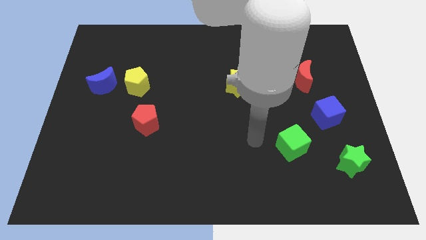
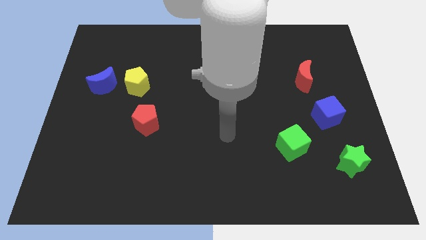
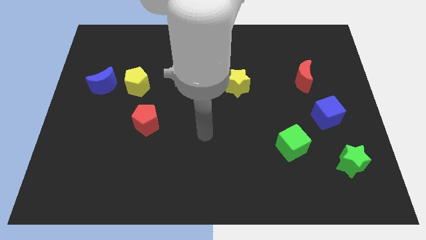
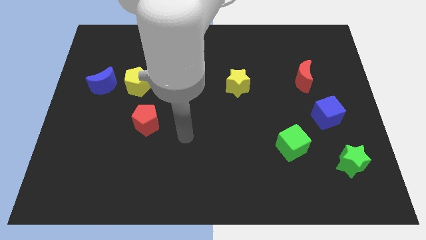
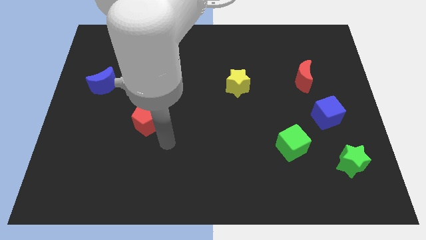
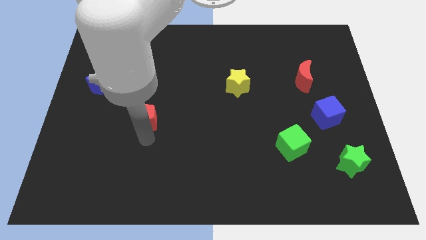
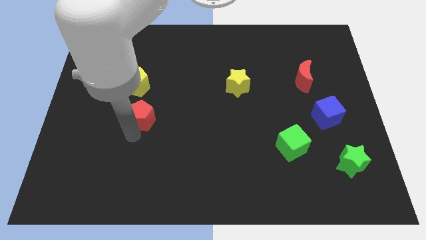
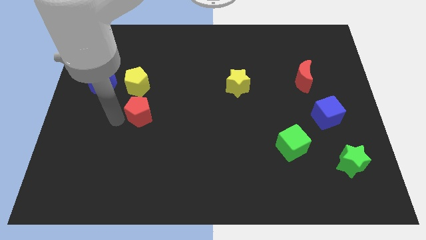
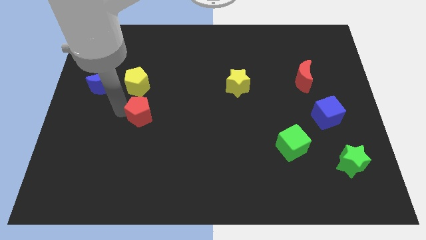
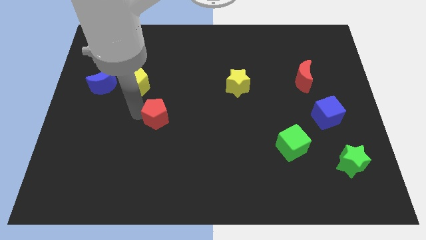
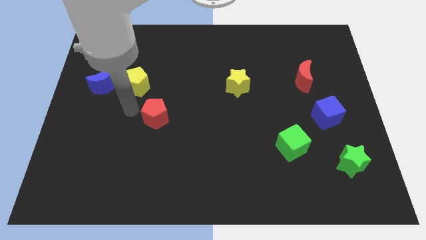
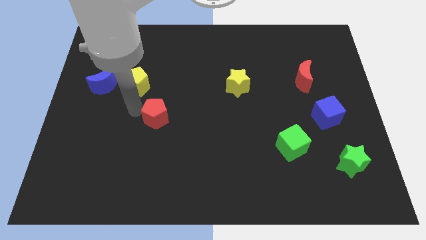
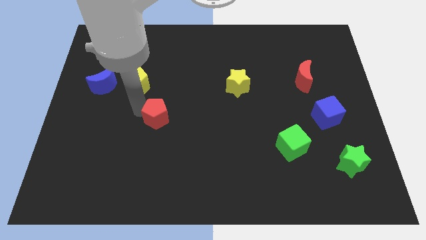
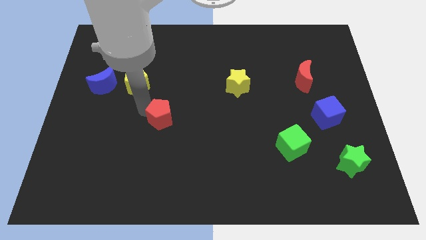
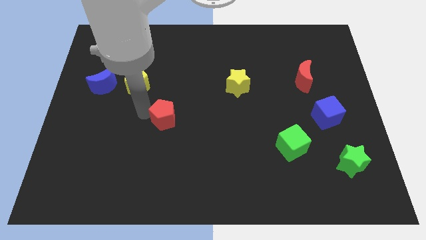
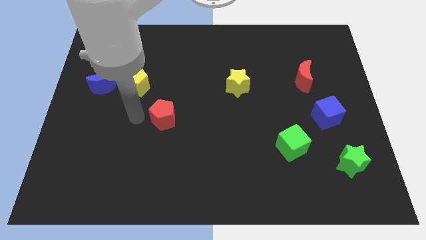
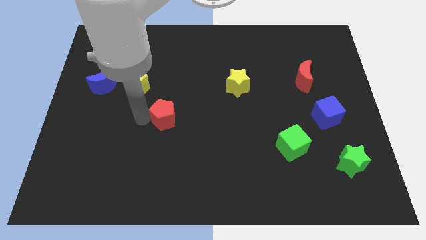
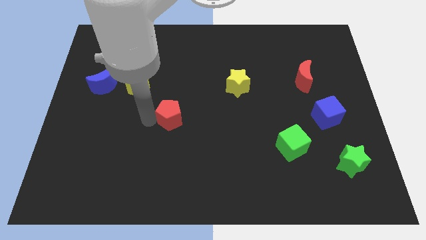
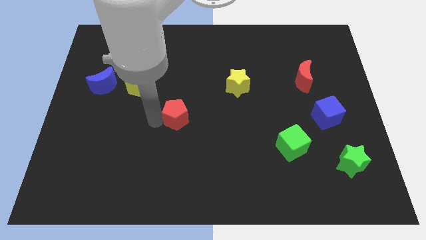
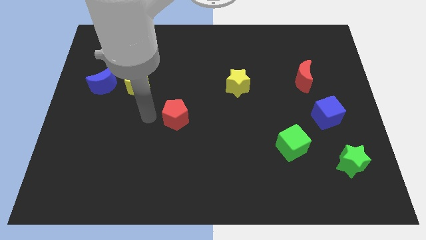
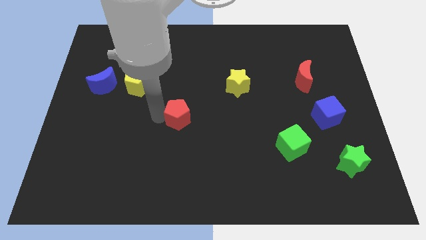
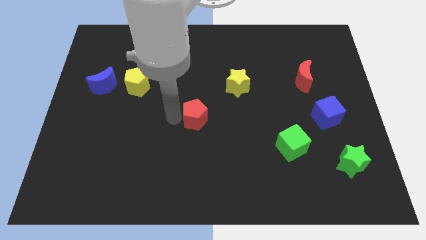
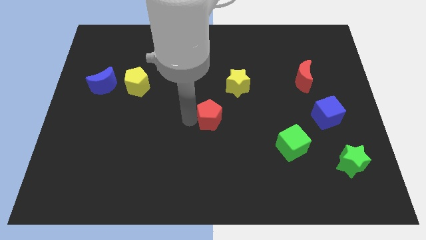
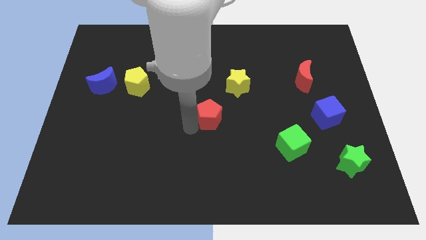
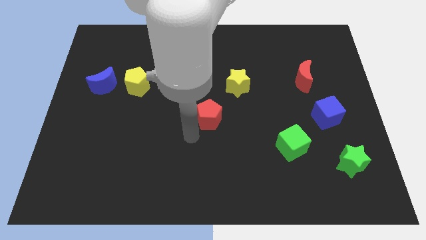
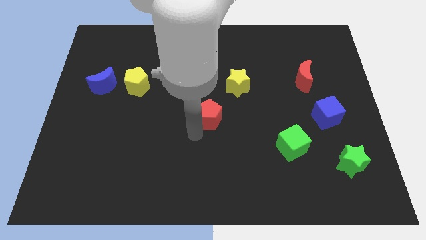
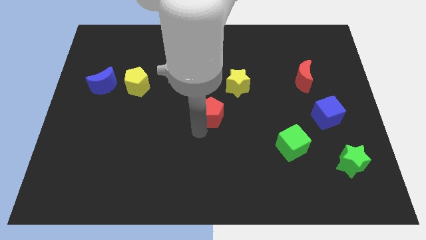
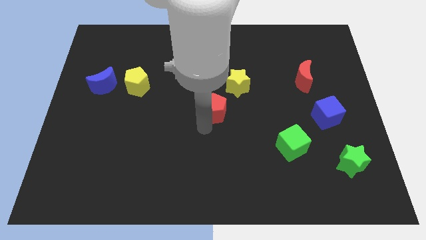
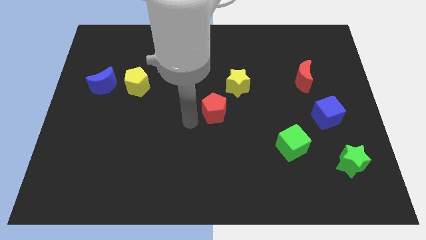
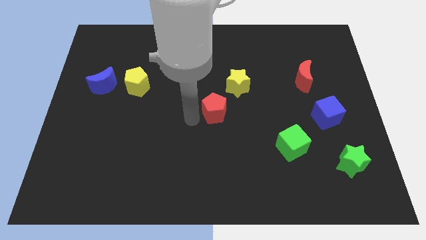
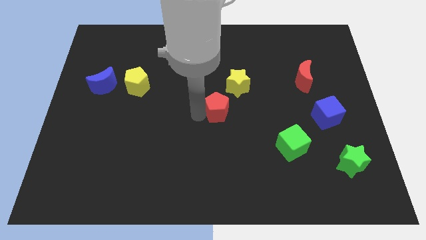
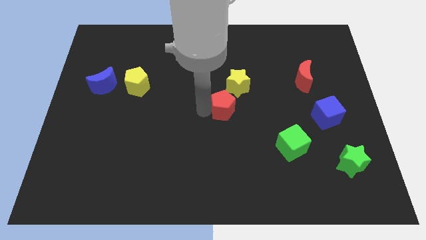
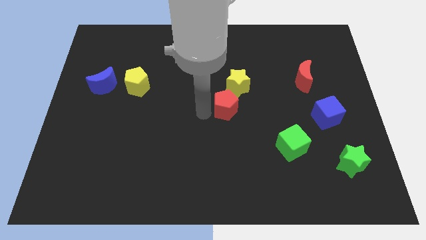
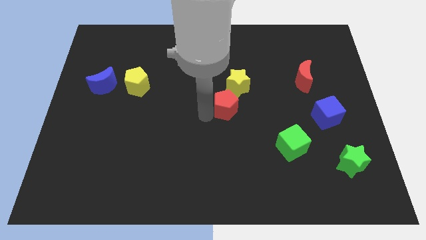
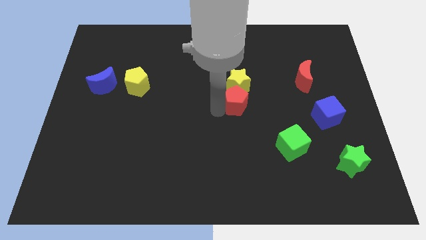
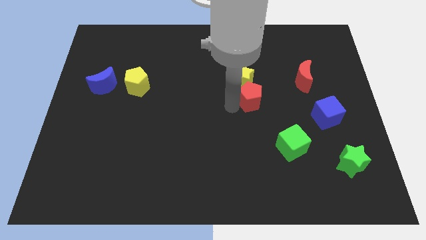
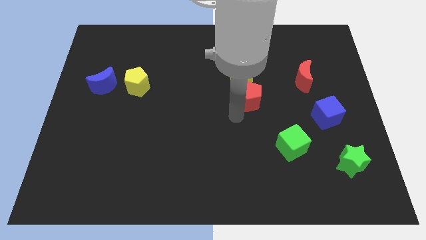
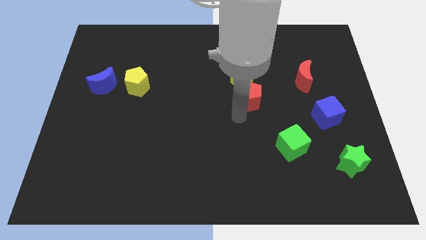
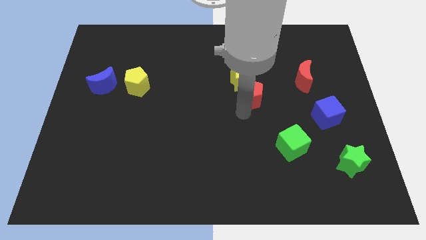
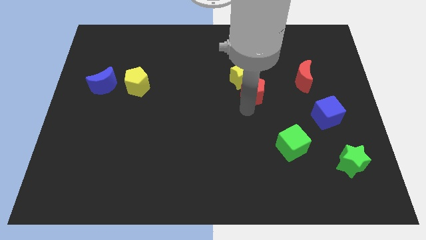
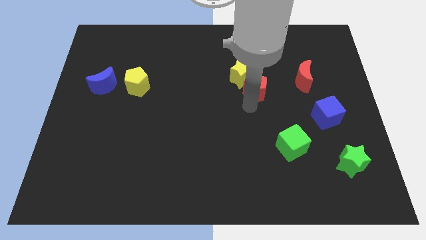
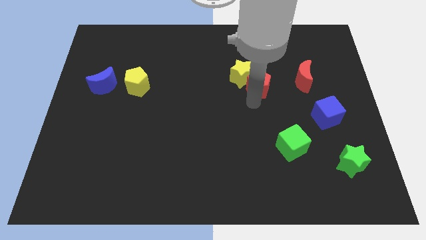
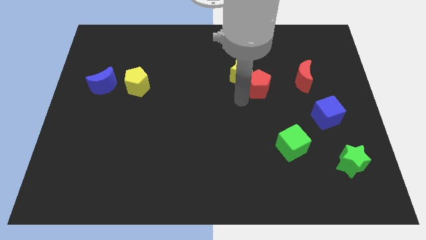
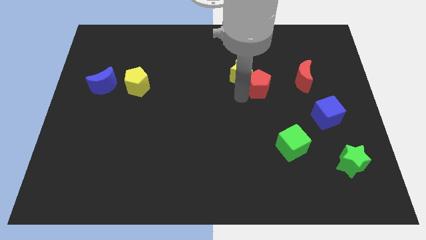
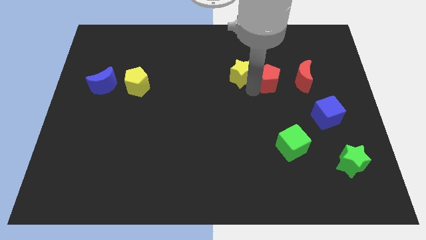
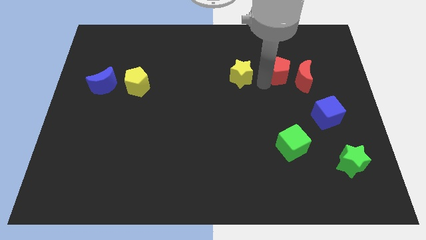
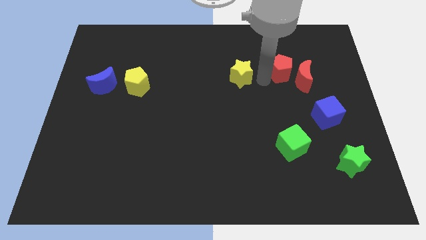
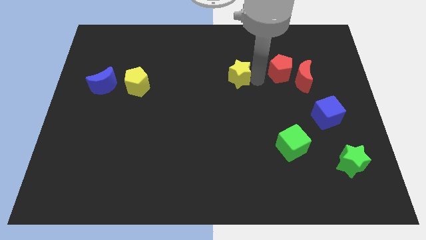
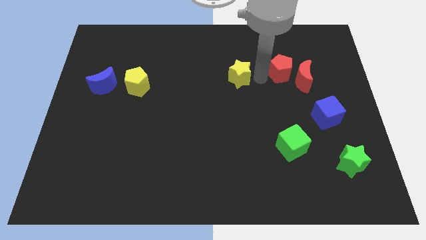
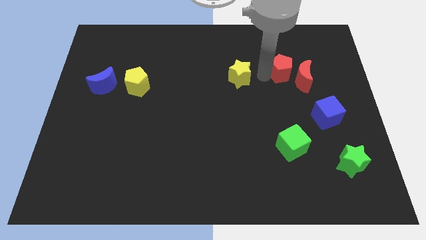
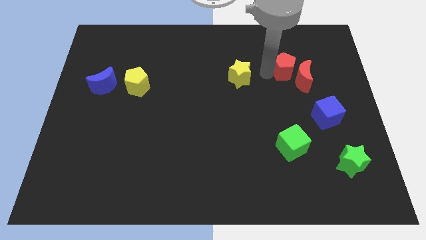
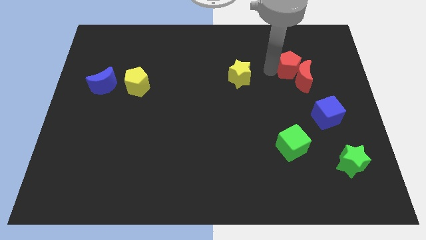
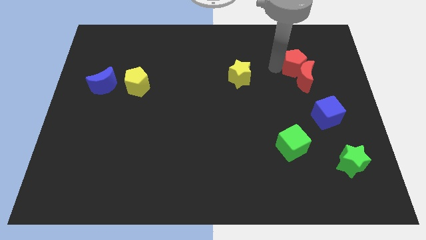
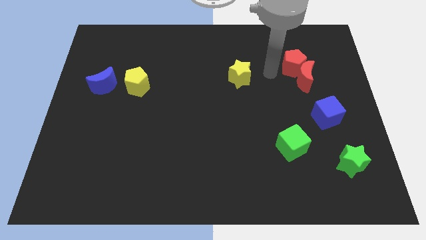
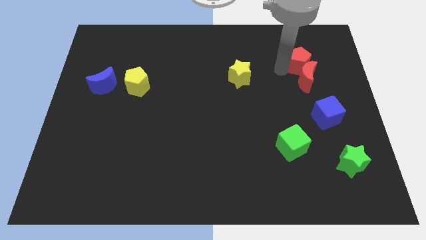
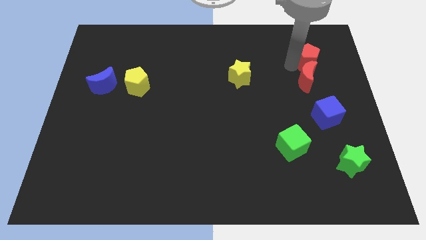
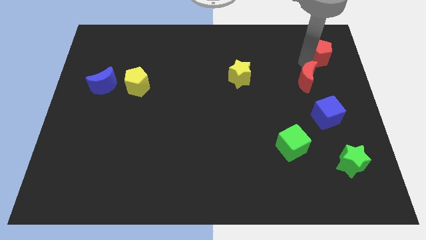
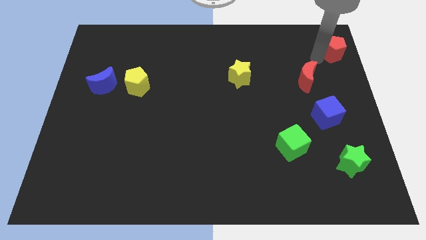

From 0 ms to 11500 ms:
put the red pentagon to the upper right corner
